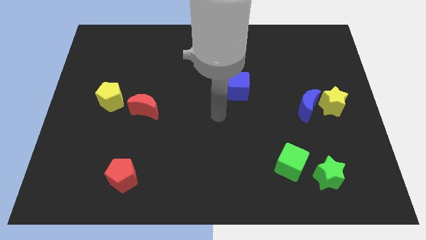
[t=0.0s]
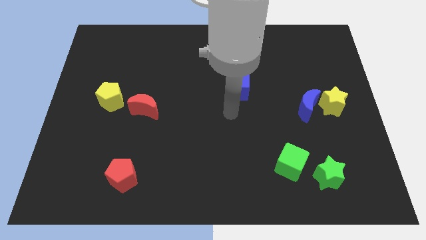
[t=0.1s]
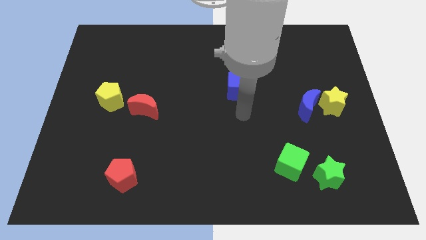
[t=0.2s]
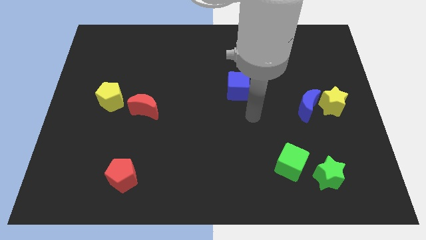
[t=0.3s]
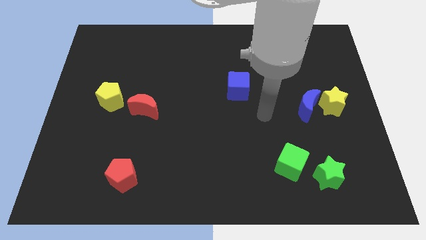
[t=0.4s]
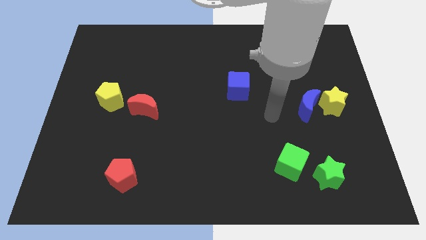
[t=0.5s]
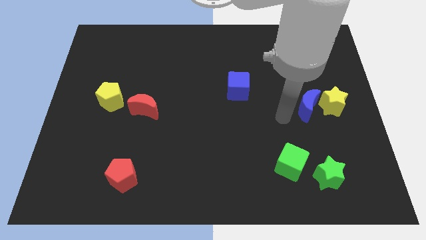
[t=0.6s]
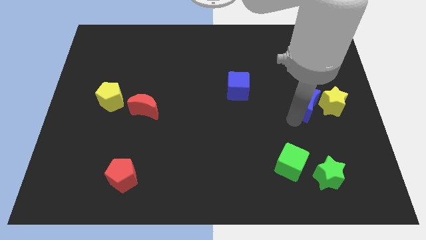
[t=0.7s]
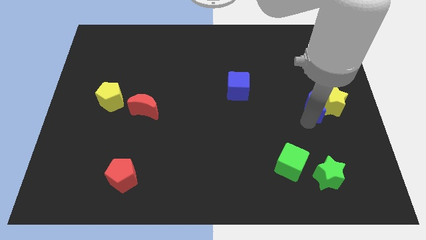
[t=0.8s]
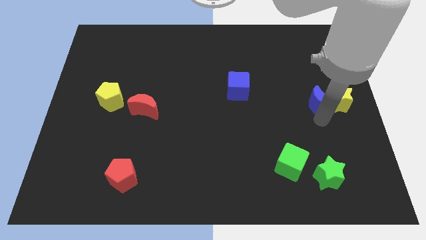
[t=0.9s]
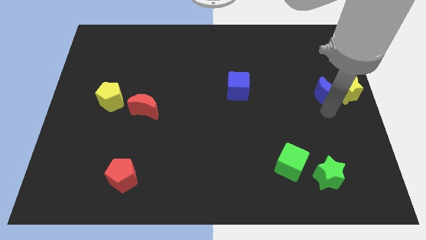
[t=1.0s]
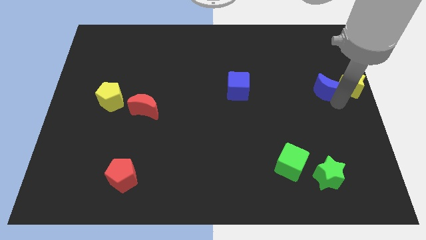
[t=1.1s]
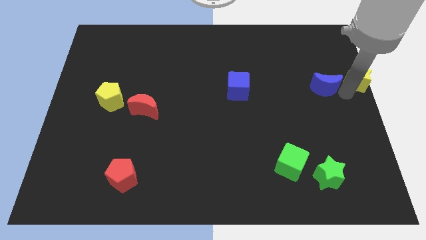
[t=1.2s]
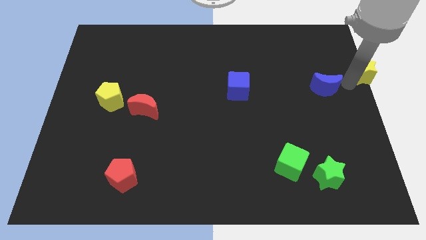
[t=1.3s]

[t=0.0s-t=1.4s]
separate the blue moon from the yellow star

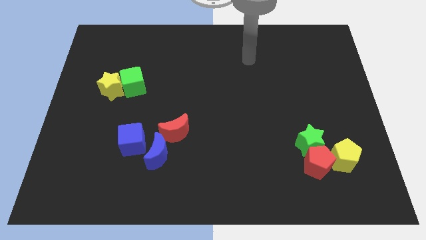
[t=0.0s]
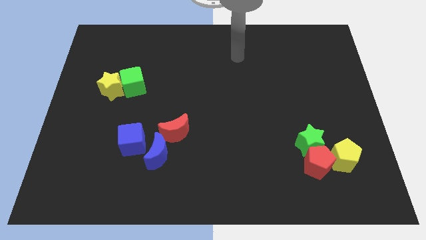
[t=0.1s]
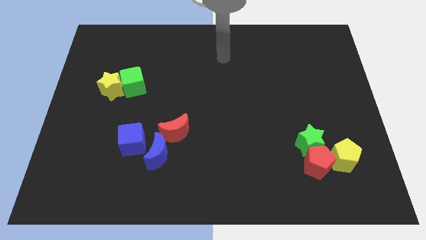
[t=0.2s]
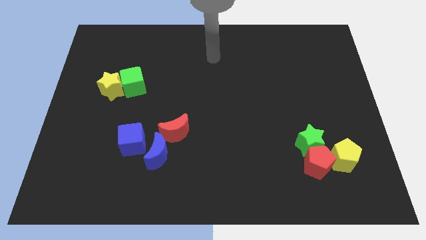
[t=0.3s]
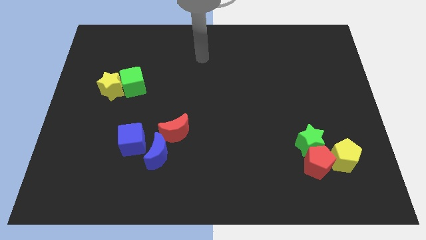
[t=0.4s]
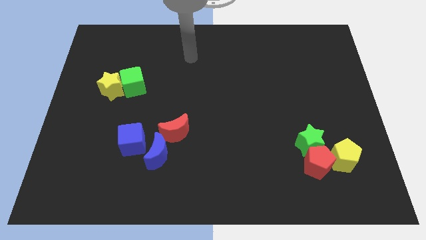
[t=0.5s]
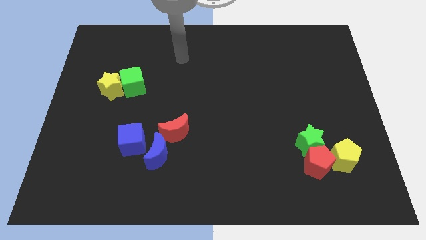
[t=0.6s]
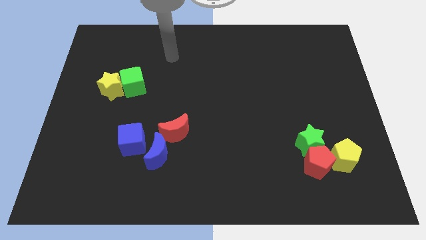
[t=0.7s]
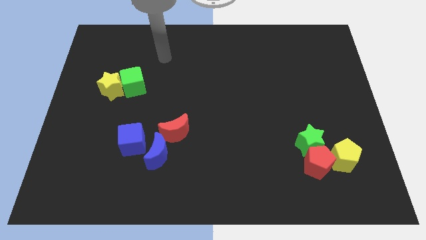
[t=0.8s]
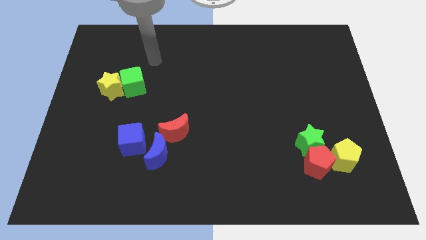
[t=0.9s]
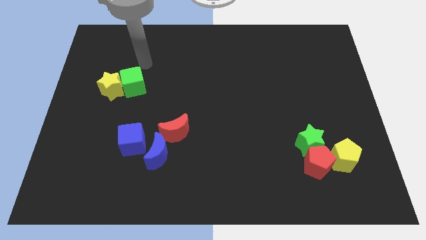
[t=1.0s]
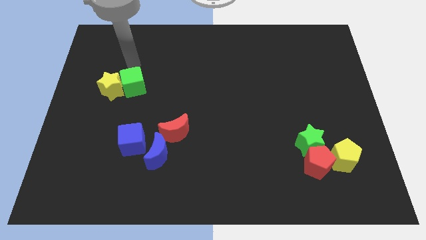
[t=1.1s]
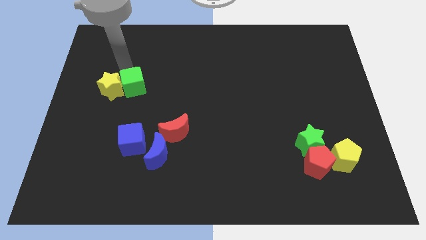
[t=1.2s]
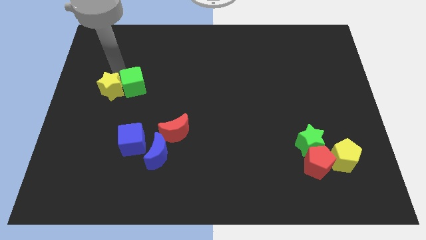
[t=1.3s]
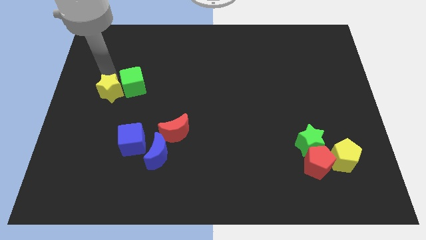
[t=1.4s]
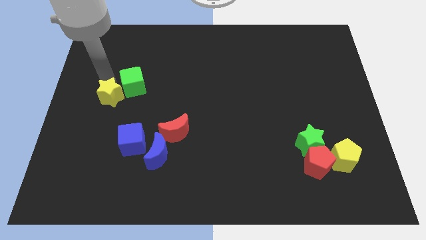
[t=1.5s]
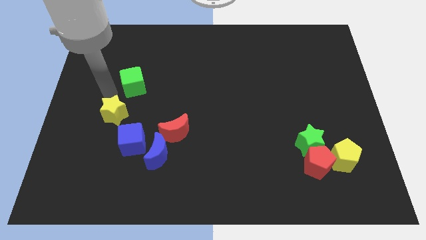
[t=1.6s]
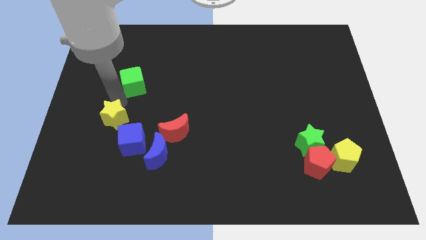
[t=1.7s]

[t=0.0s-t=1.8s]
separate the green cube from the yellow star

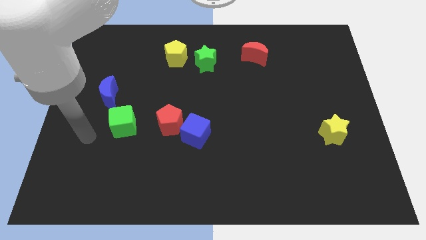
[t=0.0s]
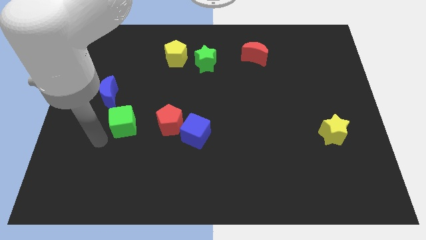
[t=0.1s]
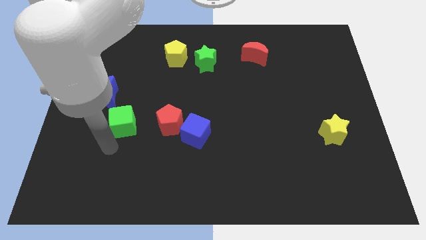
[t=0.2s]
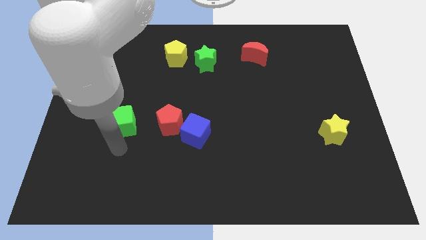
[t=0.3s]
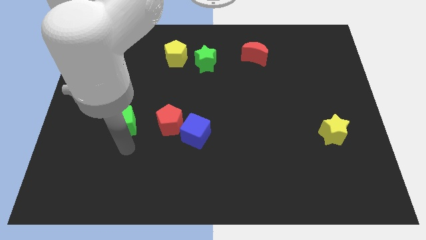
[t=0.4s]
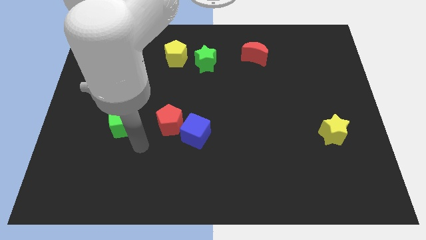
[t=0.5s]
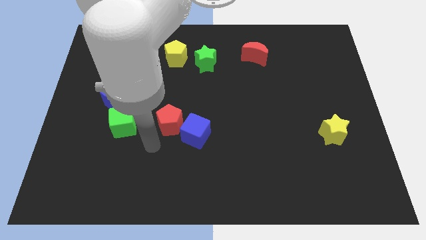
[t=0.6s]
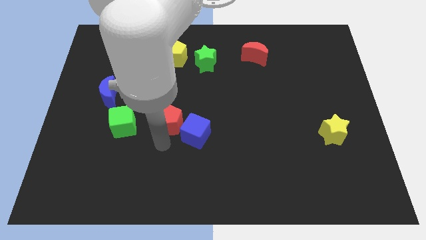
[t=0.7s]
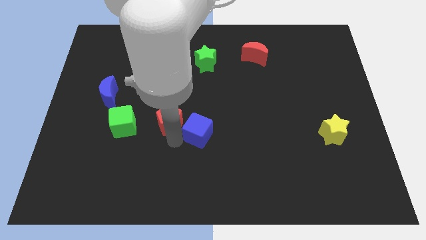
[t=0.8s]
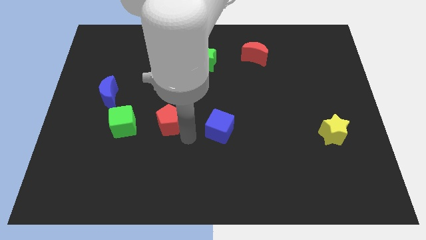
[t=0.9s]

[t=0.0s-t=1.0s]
move the red pentagon away from the blue cube

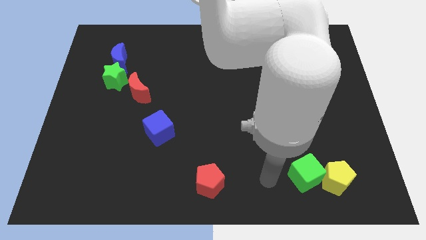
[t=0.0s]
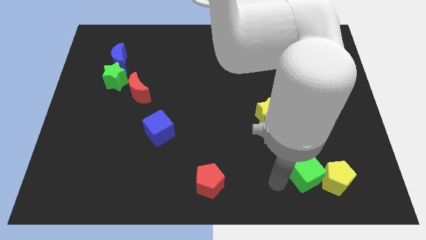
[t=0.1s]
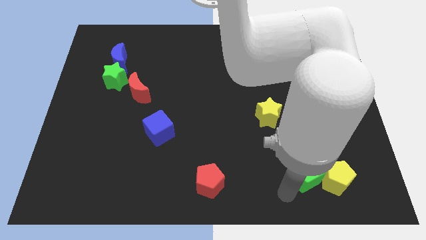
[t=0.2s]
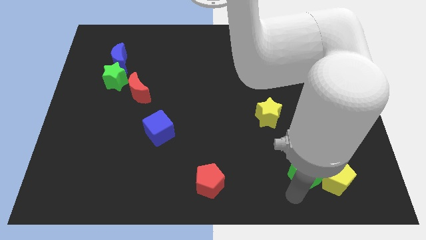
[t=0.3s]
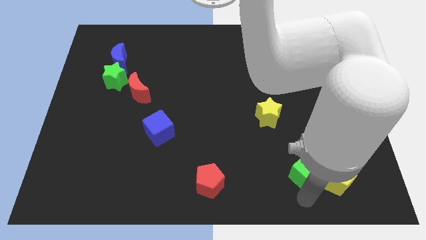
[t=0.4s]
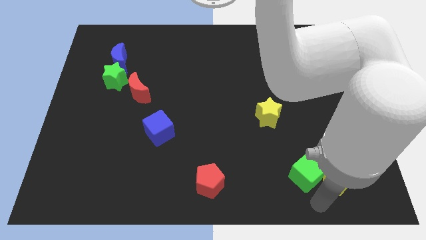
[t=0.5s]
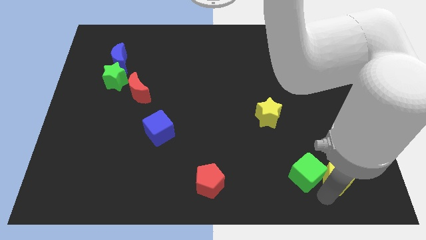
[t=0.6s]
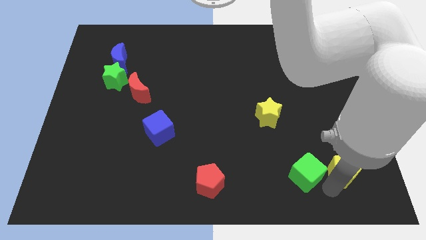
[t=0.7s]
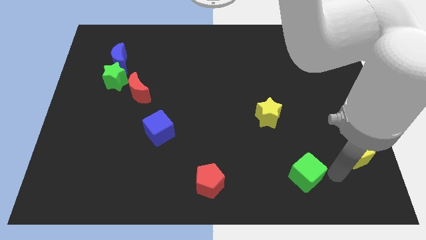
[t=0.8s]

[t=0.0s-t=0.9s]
pull the green cube apart from the yellow pentagon

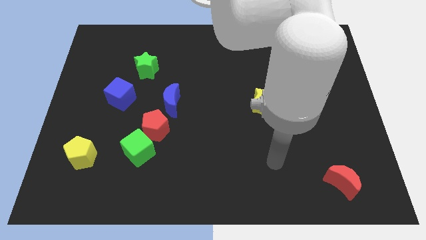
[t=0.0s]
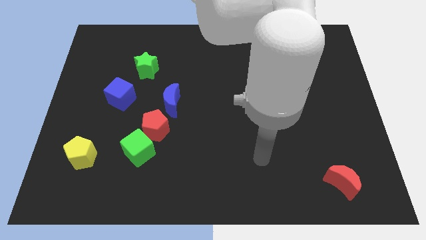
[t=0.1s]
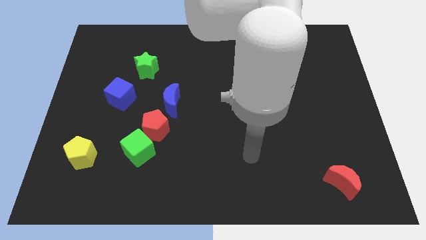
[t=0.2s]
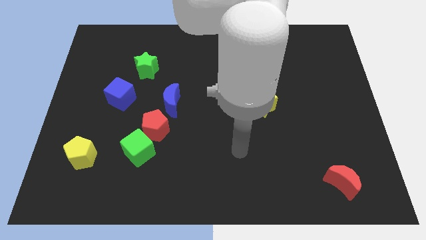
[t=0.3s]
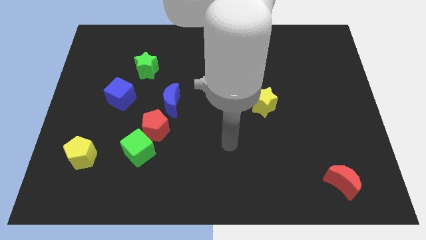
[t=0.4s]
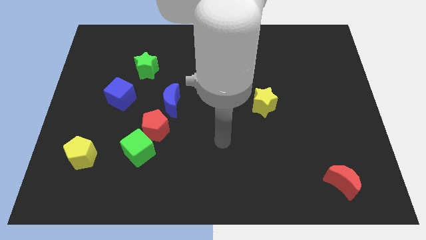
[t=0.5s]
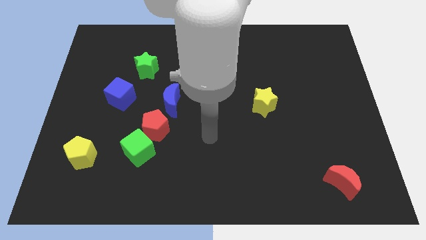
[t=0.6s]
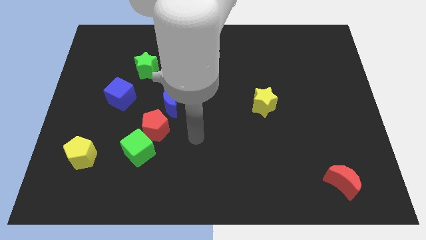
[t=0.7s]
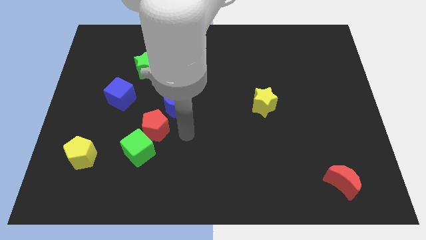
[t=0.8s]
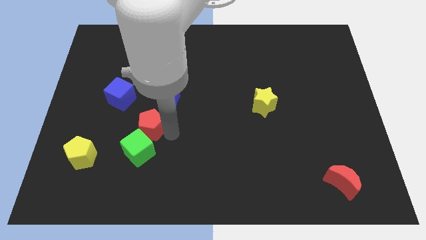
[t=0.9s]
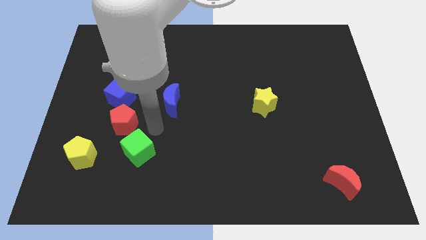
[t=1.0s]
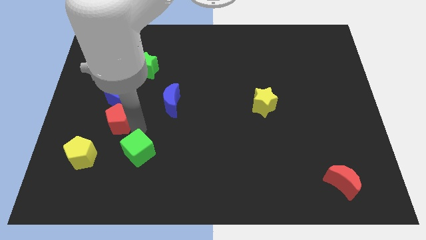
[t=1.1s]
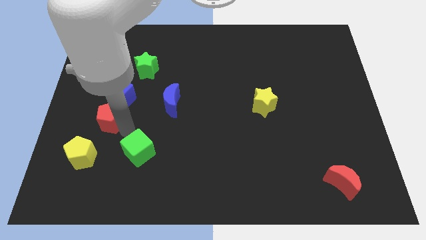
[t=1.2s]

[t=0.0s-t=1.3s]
separate the green cube from the red pentagon

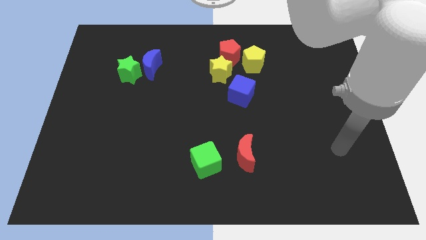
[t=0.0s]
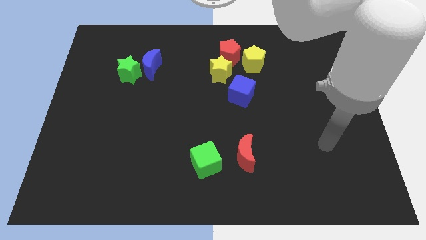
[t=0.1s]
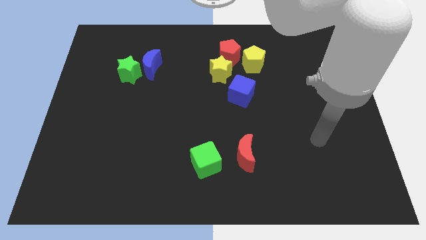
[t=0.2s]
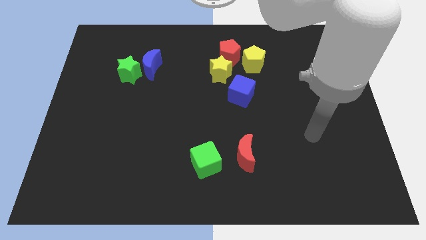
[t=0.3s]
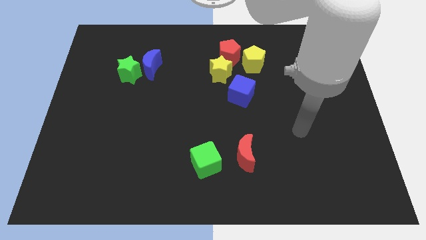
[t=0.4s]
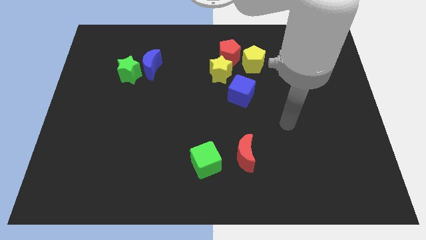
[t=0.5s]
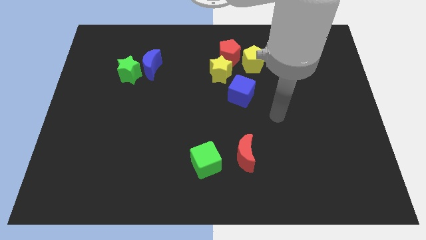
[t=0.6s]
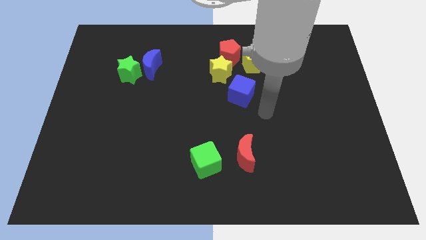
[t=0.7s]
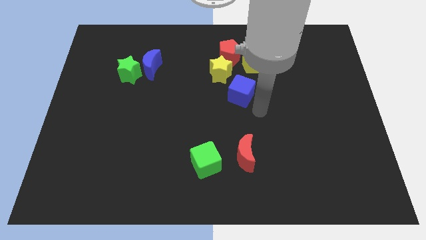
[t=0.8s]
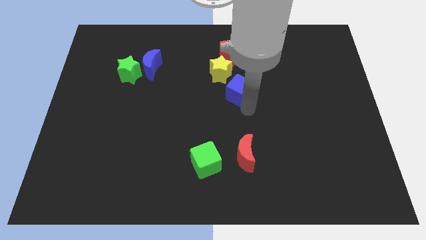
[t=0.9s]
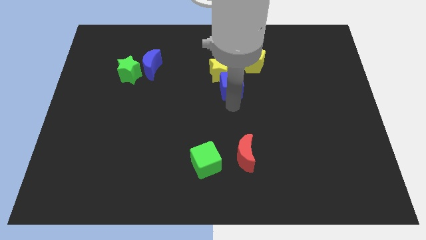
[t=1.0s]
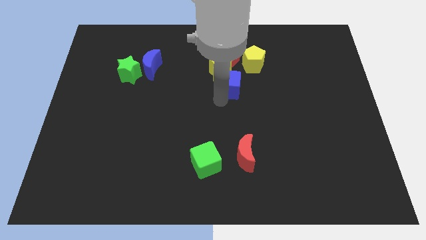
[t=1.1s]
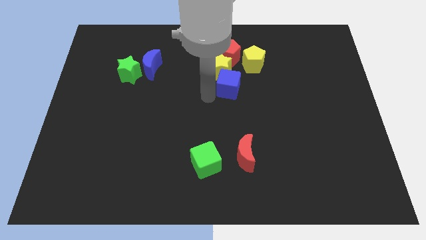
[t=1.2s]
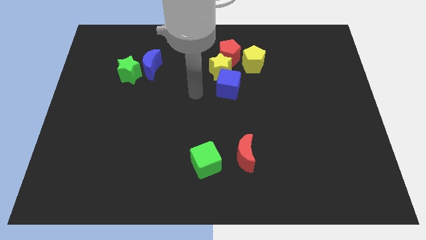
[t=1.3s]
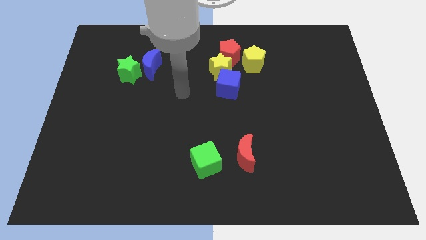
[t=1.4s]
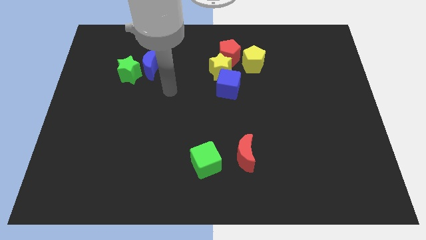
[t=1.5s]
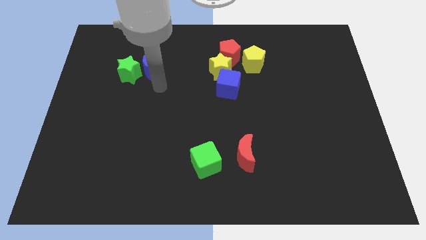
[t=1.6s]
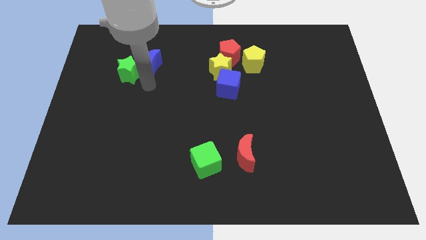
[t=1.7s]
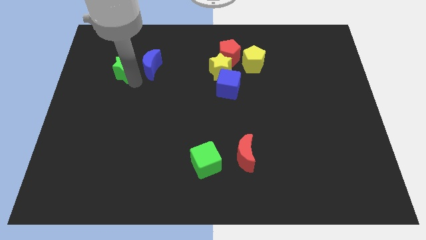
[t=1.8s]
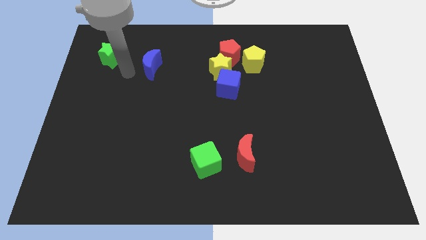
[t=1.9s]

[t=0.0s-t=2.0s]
separate the blue moon from the green star

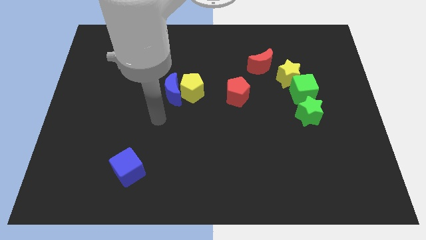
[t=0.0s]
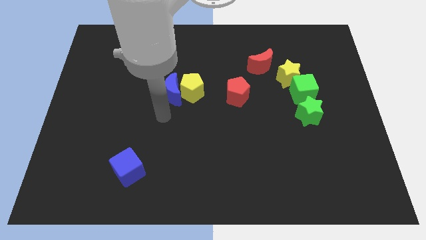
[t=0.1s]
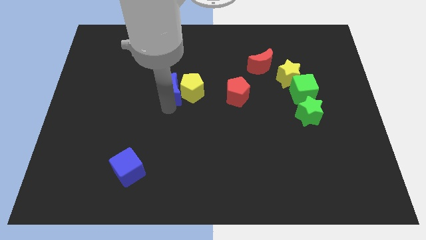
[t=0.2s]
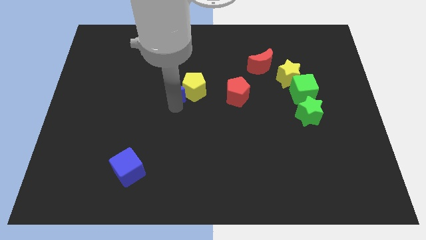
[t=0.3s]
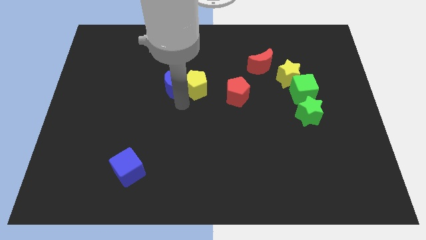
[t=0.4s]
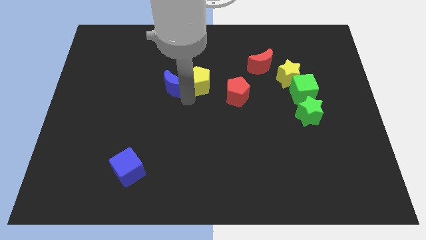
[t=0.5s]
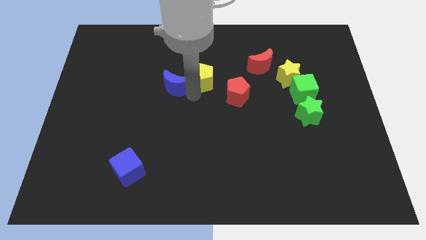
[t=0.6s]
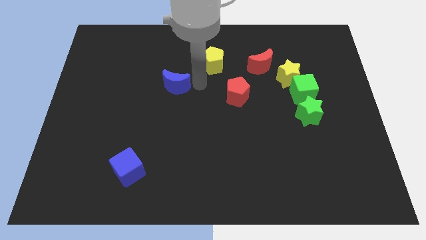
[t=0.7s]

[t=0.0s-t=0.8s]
move the blue moon away from the yellow pentagon
